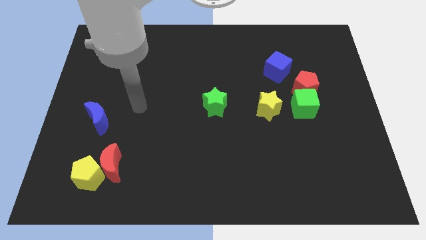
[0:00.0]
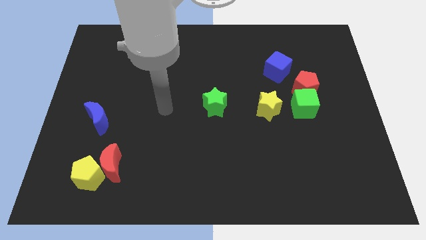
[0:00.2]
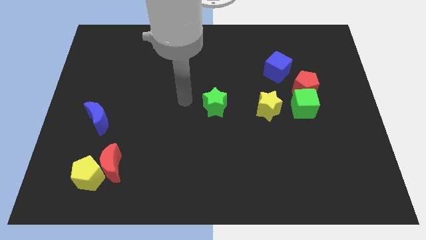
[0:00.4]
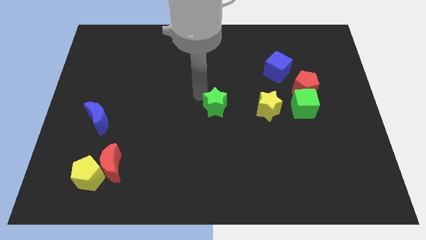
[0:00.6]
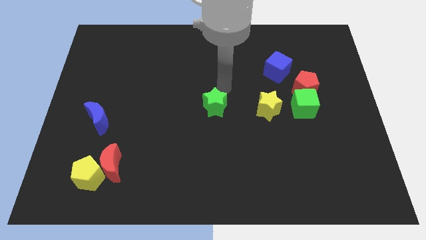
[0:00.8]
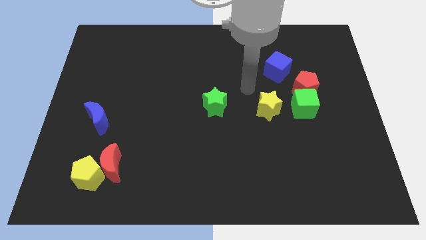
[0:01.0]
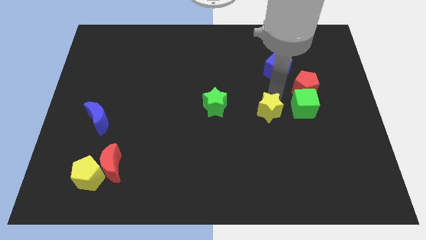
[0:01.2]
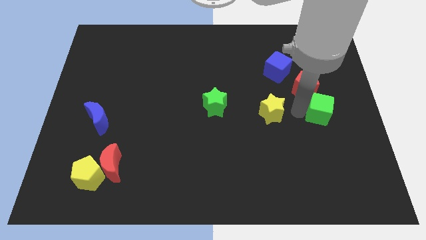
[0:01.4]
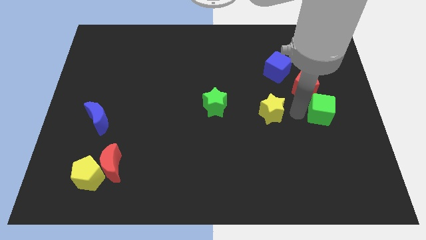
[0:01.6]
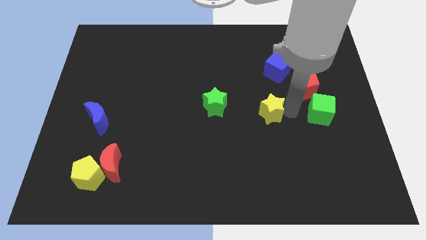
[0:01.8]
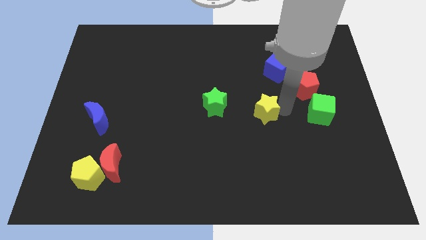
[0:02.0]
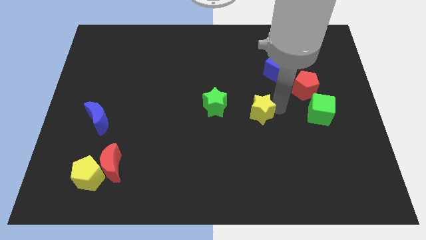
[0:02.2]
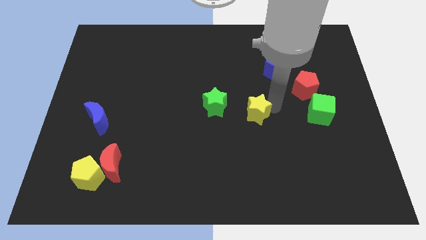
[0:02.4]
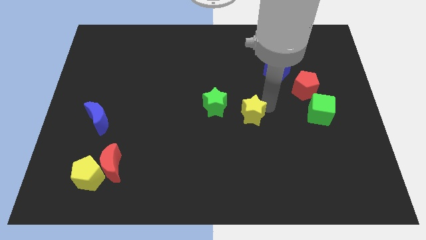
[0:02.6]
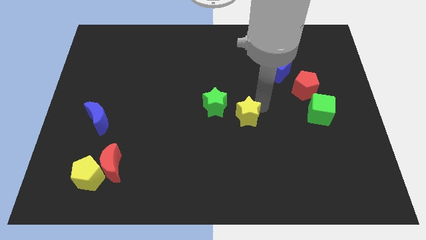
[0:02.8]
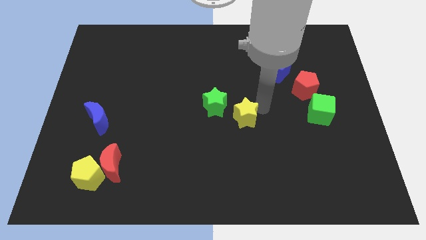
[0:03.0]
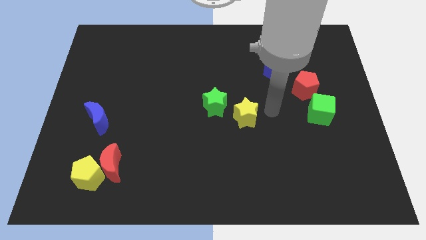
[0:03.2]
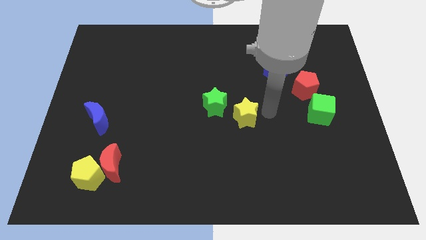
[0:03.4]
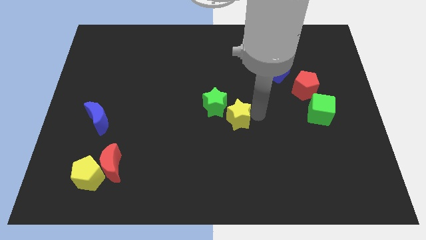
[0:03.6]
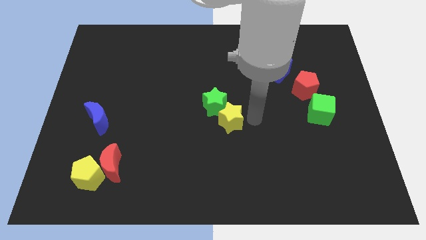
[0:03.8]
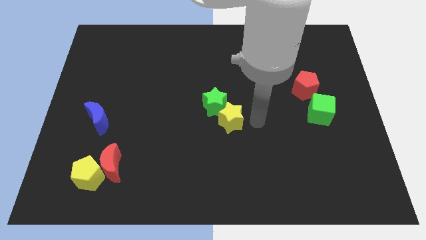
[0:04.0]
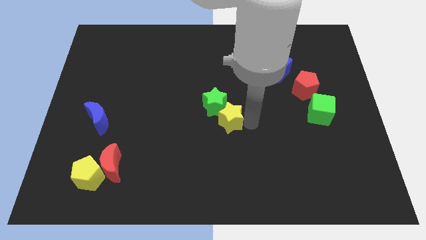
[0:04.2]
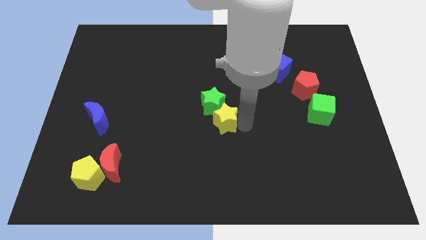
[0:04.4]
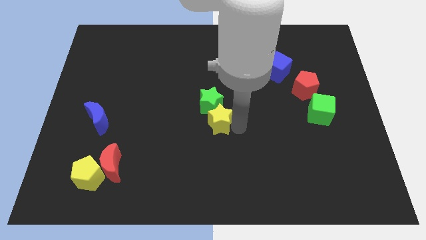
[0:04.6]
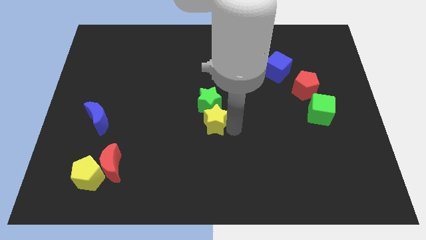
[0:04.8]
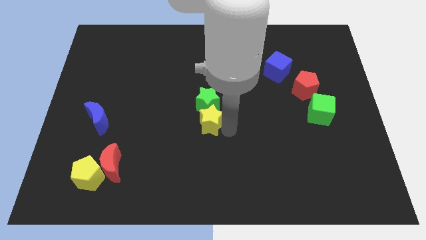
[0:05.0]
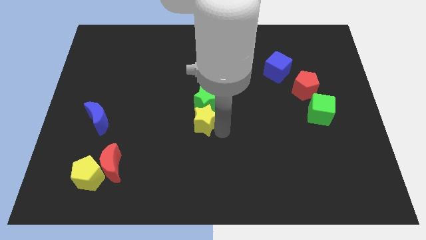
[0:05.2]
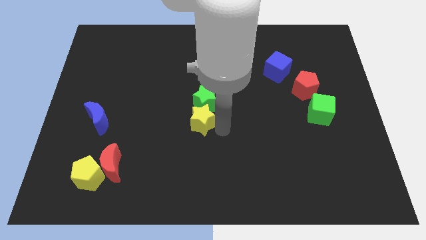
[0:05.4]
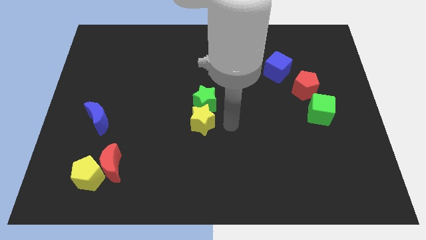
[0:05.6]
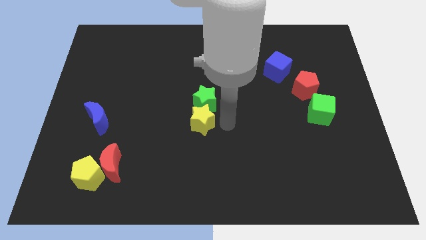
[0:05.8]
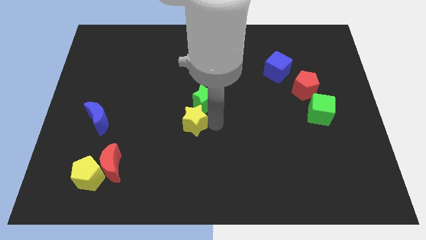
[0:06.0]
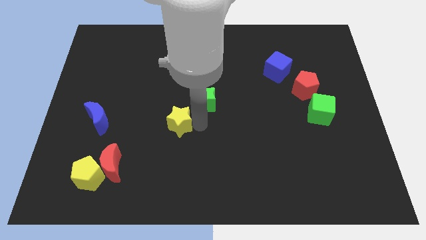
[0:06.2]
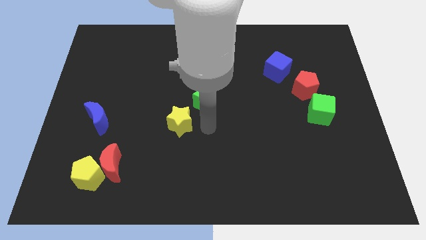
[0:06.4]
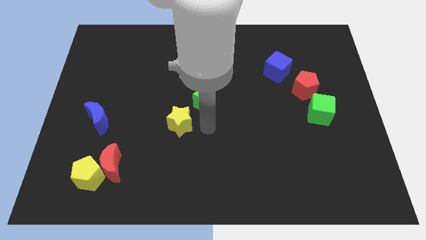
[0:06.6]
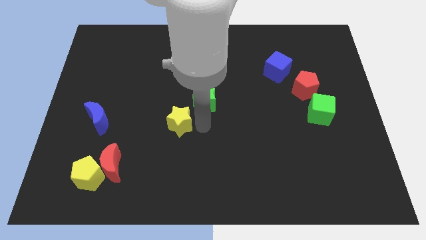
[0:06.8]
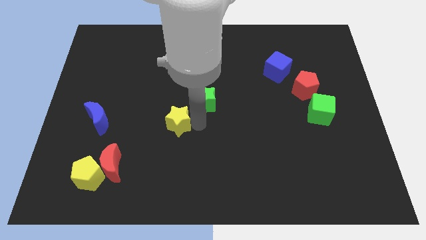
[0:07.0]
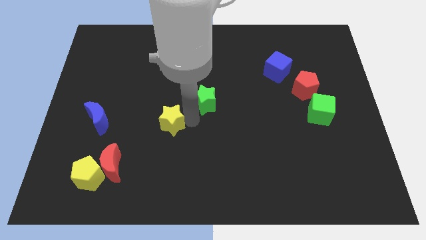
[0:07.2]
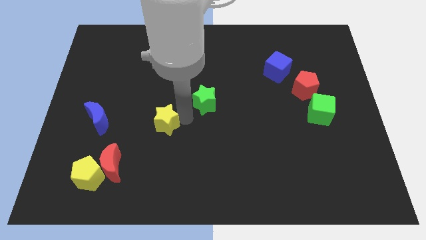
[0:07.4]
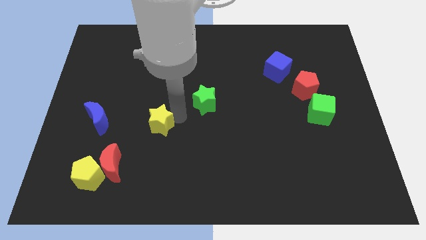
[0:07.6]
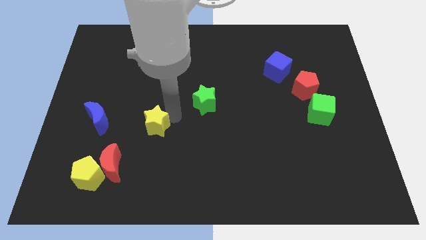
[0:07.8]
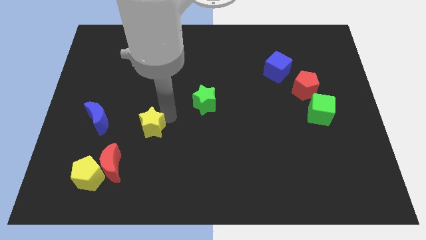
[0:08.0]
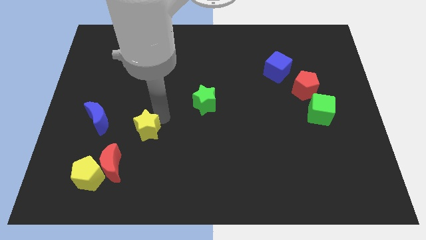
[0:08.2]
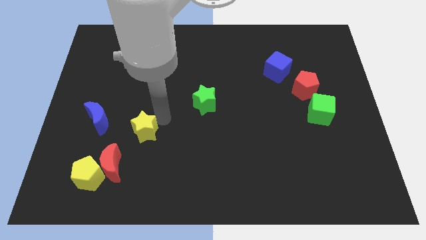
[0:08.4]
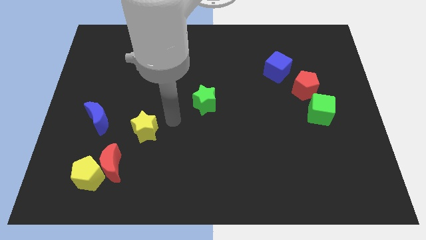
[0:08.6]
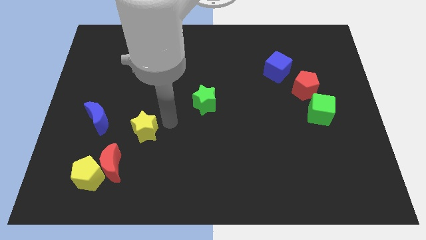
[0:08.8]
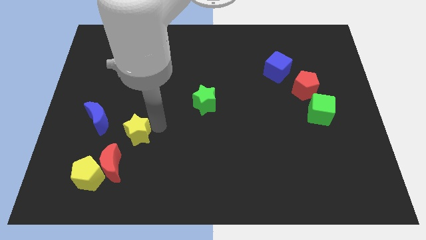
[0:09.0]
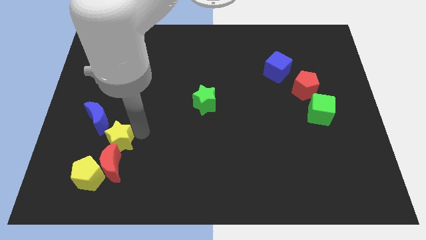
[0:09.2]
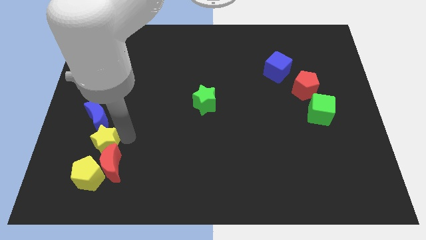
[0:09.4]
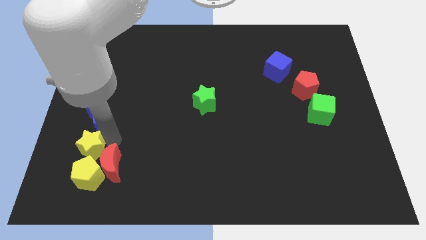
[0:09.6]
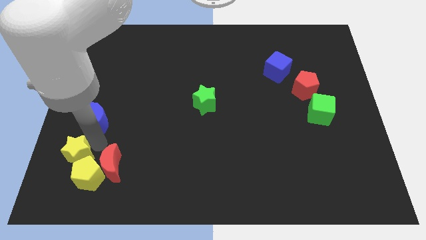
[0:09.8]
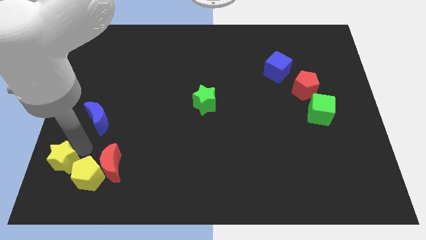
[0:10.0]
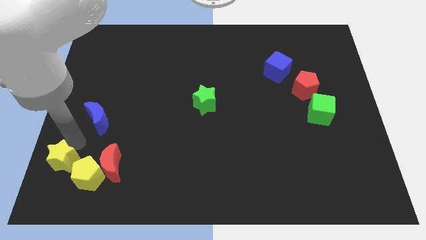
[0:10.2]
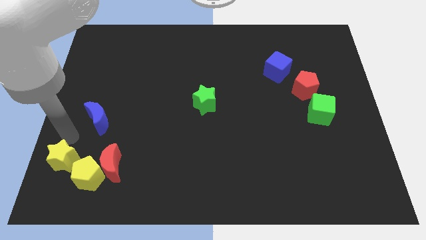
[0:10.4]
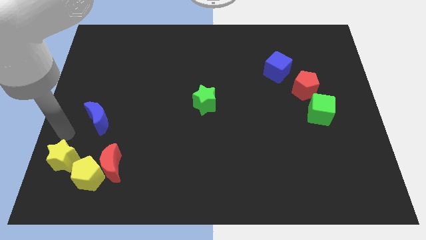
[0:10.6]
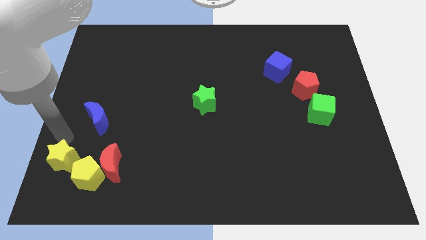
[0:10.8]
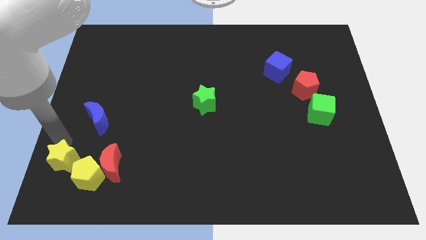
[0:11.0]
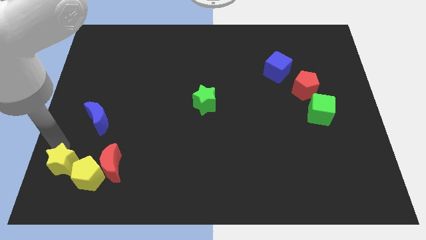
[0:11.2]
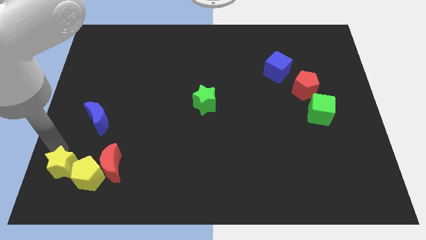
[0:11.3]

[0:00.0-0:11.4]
move the yellow star to the bottom left
